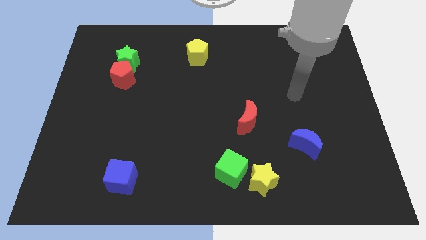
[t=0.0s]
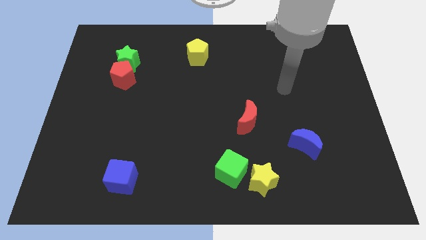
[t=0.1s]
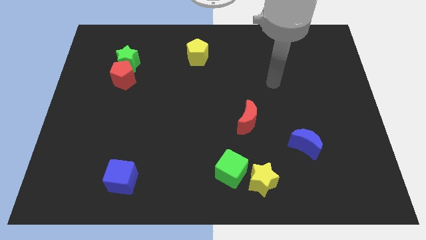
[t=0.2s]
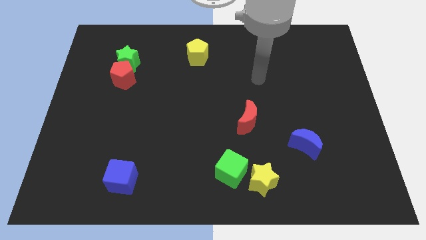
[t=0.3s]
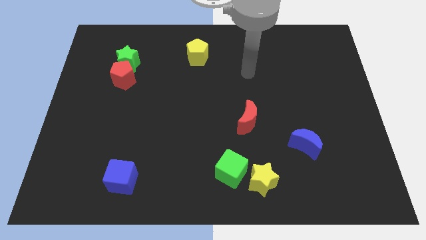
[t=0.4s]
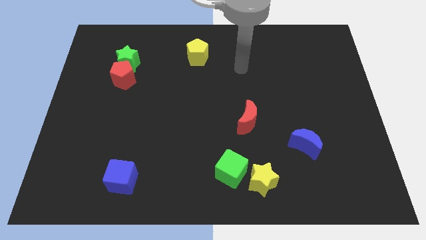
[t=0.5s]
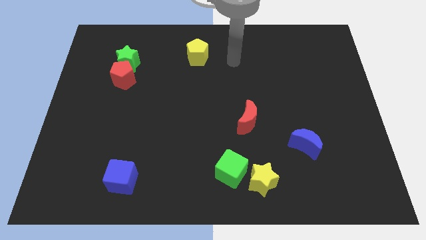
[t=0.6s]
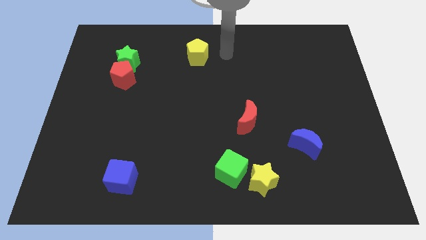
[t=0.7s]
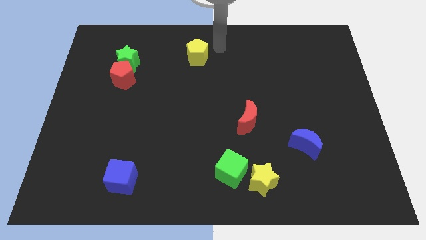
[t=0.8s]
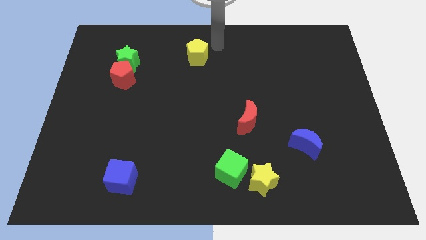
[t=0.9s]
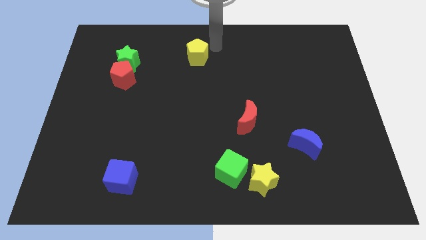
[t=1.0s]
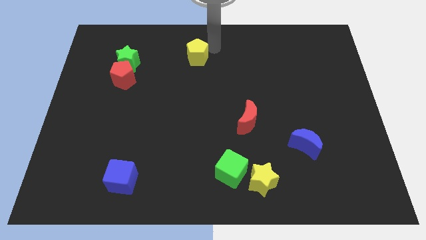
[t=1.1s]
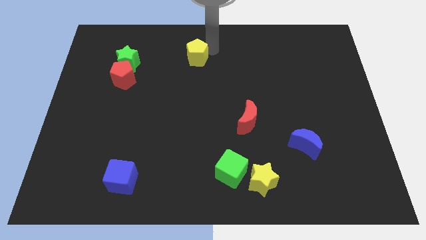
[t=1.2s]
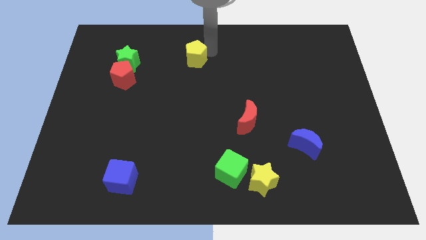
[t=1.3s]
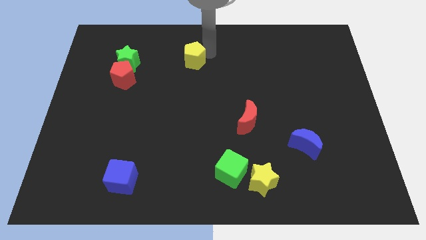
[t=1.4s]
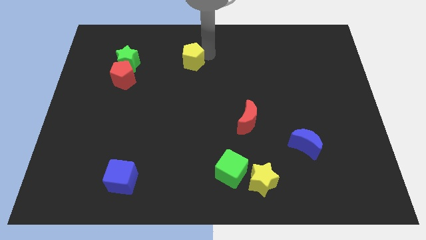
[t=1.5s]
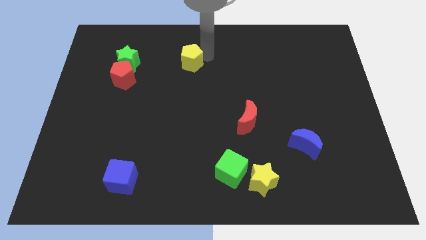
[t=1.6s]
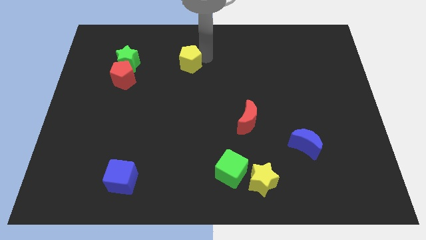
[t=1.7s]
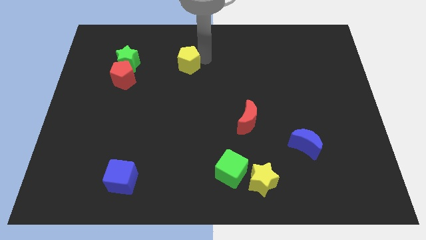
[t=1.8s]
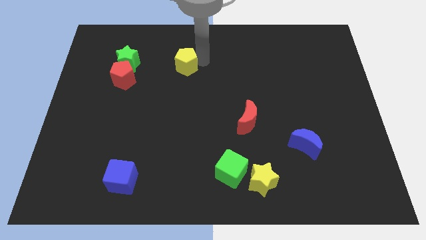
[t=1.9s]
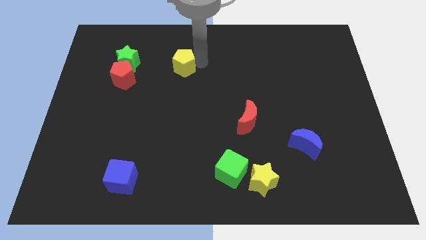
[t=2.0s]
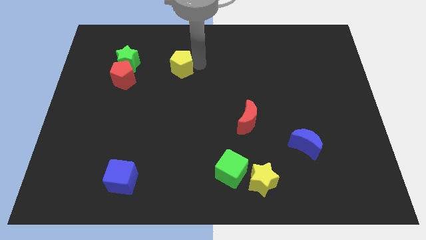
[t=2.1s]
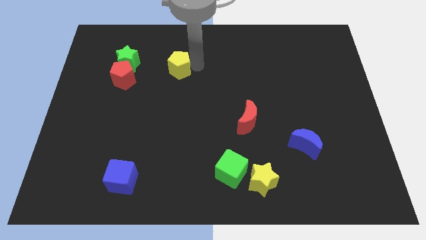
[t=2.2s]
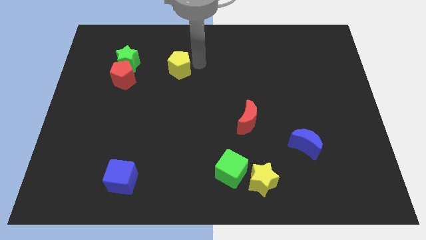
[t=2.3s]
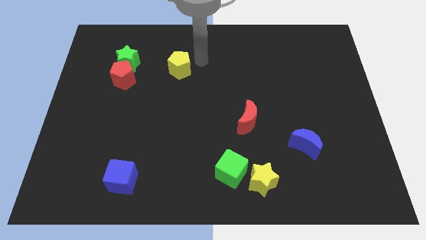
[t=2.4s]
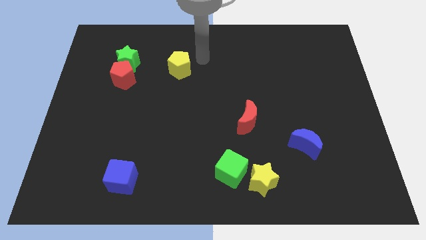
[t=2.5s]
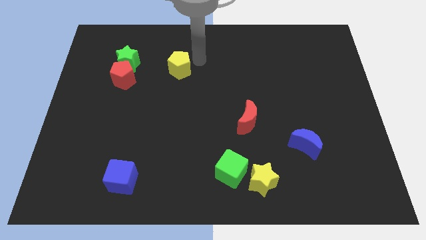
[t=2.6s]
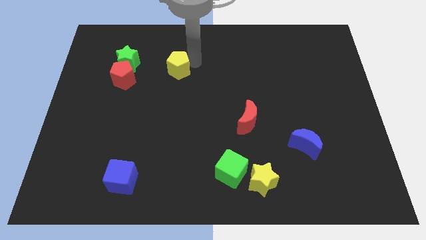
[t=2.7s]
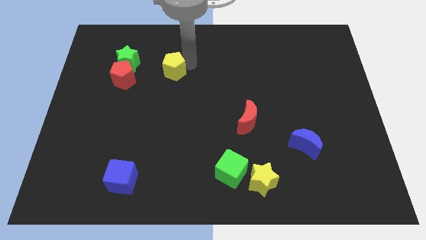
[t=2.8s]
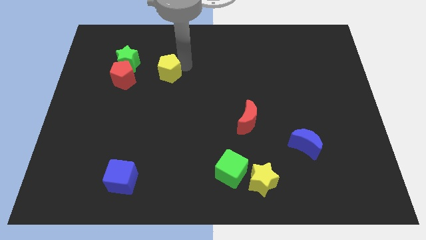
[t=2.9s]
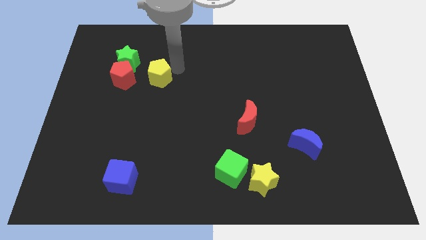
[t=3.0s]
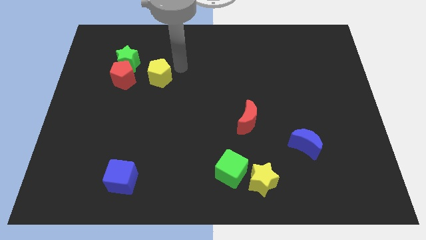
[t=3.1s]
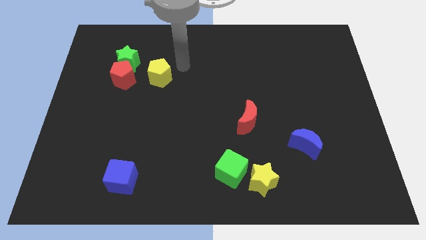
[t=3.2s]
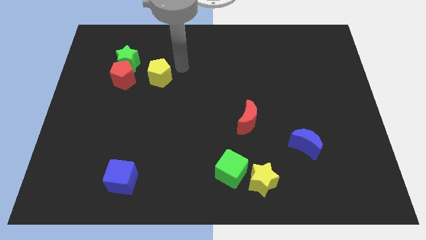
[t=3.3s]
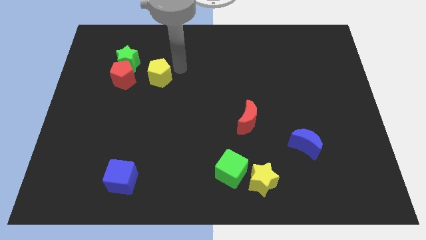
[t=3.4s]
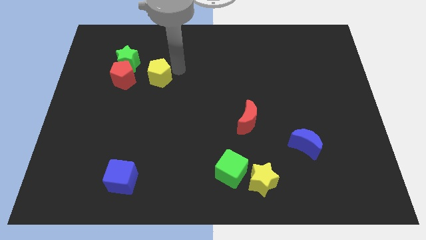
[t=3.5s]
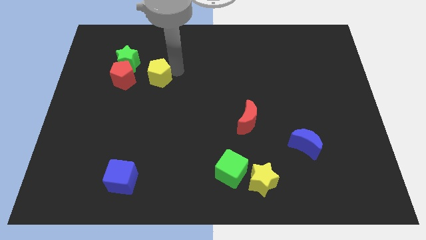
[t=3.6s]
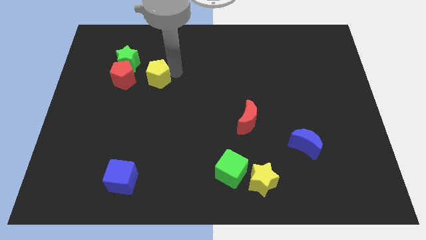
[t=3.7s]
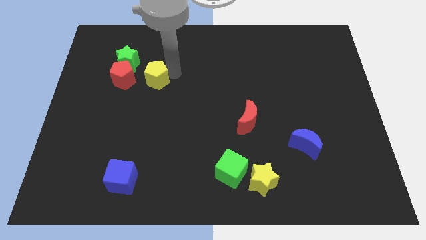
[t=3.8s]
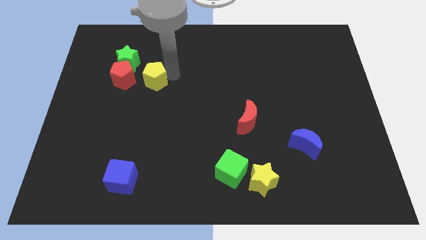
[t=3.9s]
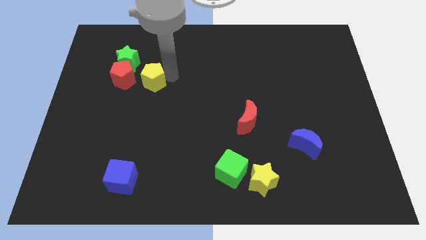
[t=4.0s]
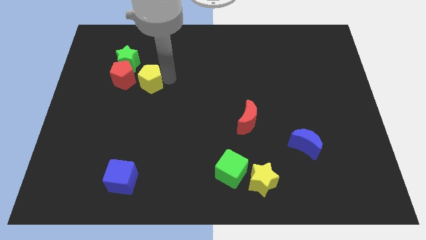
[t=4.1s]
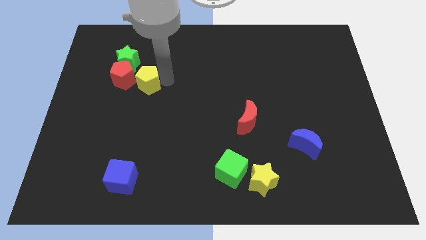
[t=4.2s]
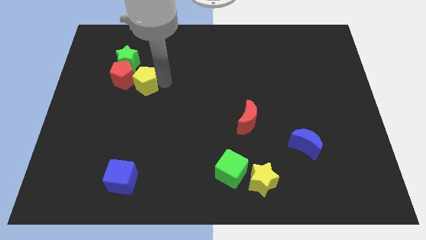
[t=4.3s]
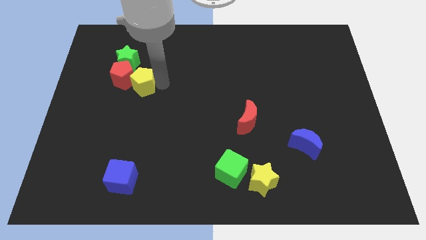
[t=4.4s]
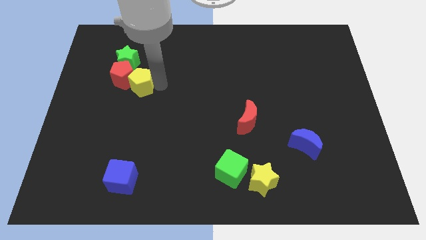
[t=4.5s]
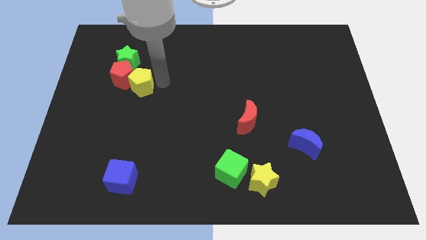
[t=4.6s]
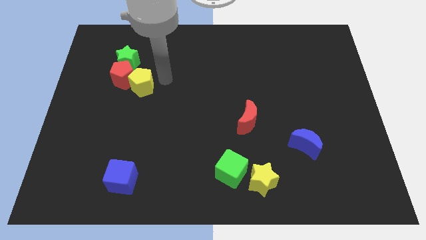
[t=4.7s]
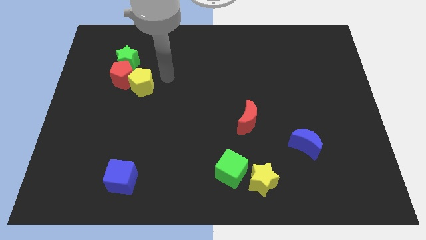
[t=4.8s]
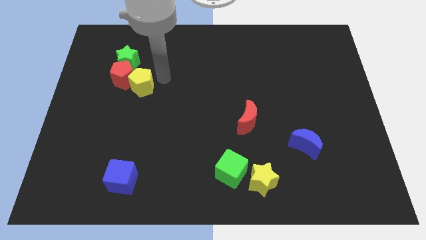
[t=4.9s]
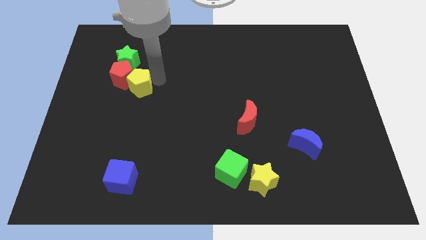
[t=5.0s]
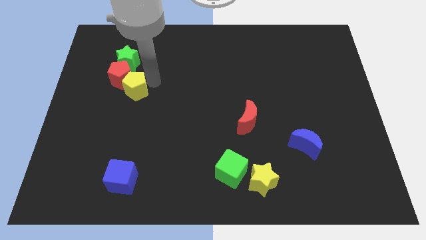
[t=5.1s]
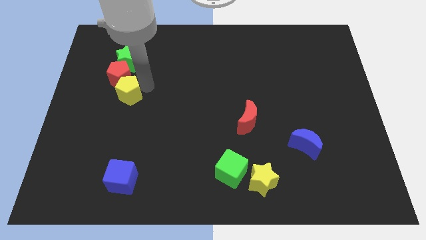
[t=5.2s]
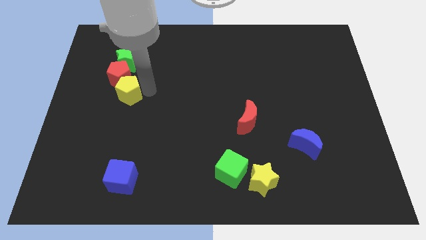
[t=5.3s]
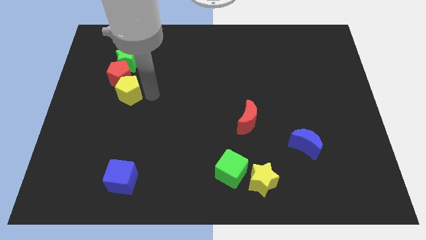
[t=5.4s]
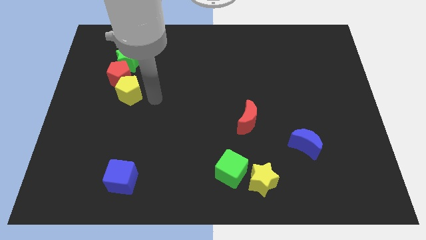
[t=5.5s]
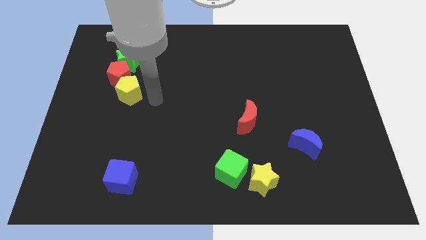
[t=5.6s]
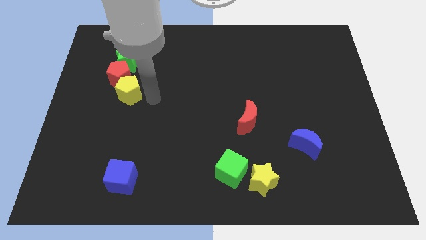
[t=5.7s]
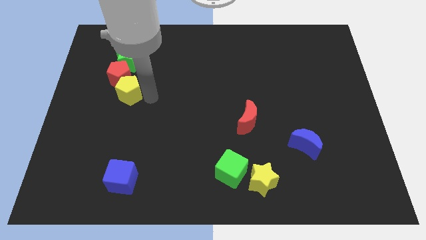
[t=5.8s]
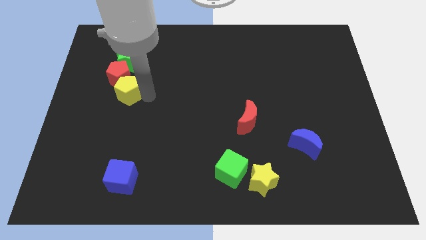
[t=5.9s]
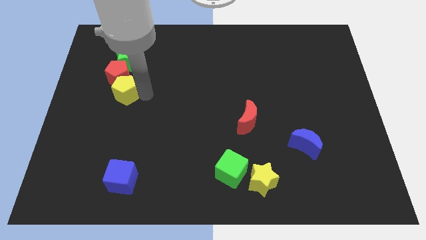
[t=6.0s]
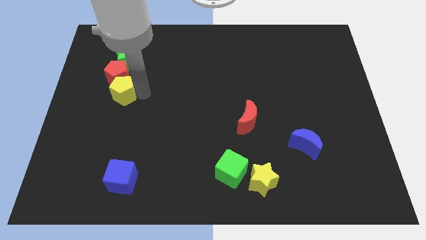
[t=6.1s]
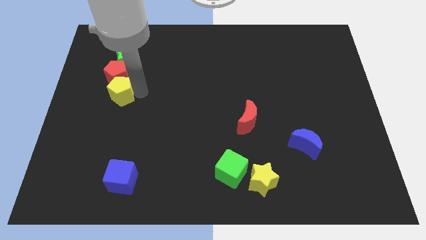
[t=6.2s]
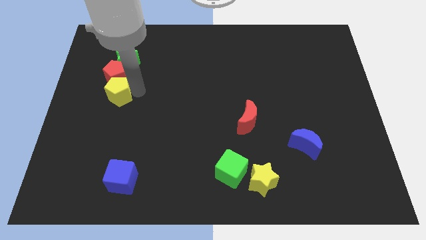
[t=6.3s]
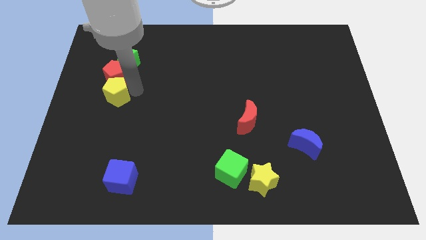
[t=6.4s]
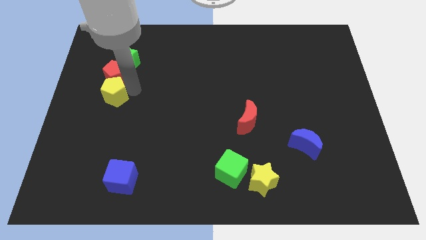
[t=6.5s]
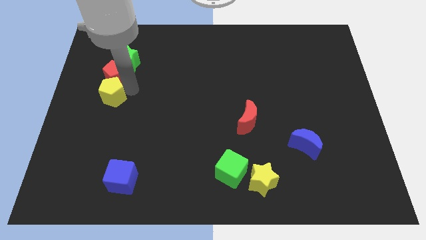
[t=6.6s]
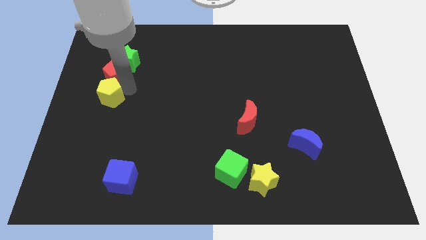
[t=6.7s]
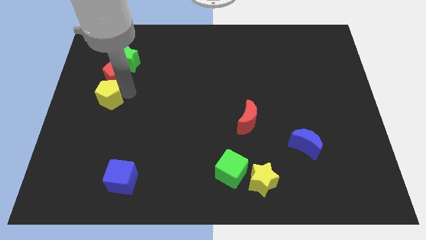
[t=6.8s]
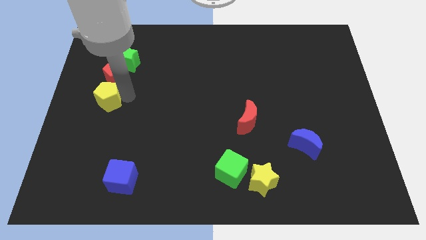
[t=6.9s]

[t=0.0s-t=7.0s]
push the yellow pentagon to the center left

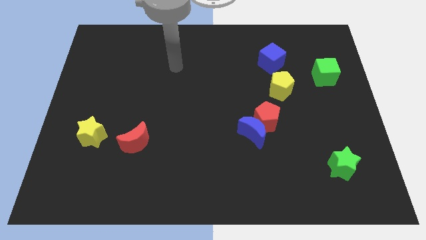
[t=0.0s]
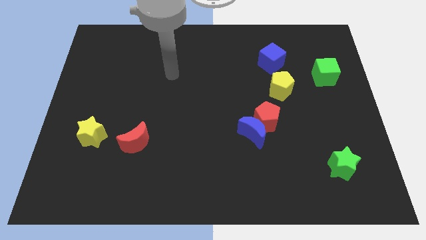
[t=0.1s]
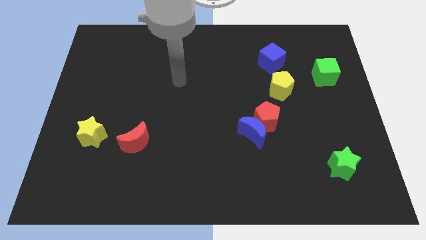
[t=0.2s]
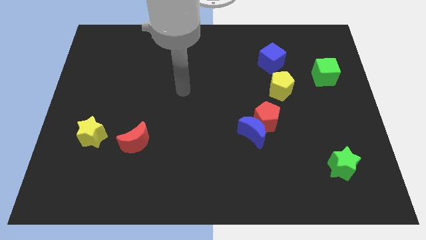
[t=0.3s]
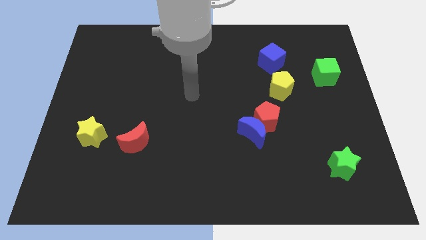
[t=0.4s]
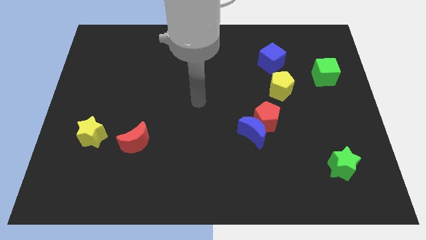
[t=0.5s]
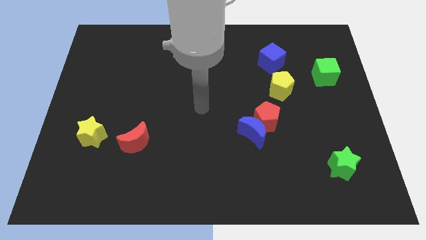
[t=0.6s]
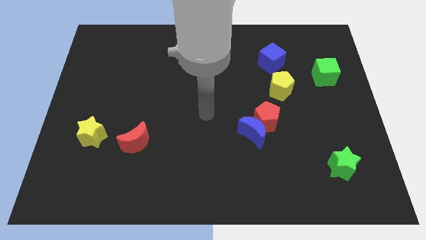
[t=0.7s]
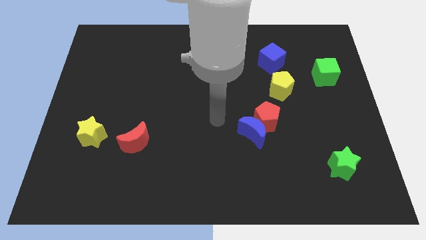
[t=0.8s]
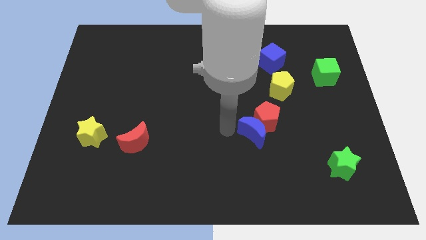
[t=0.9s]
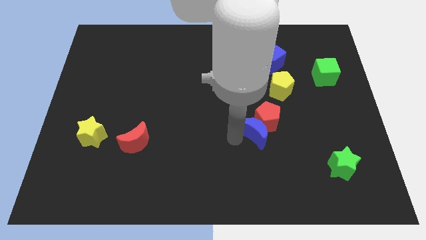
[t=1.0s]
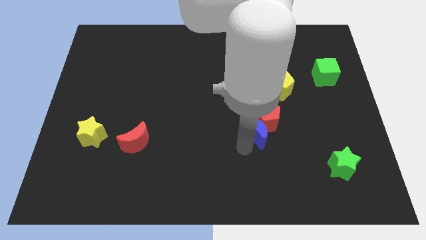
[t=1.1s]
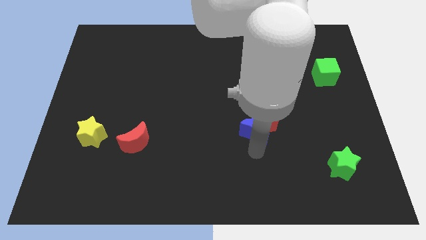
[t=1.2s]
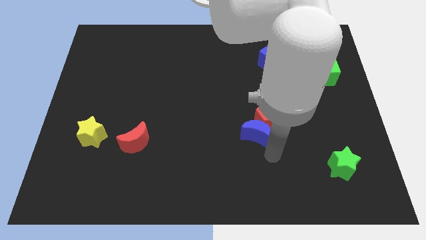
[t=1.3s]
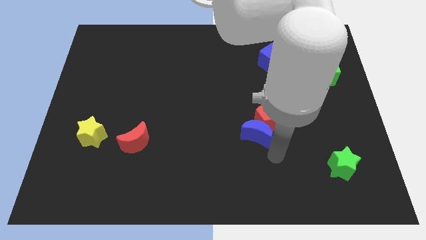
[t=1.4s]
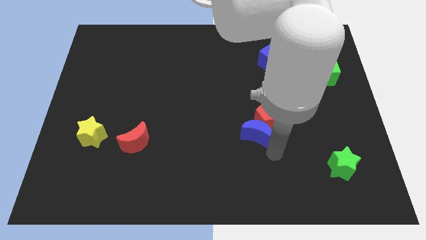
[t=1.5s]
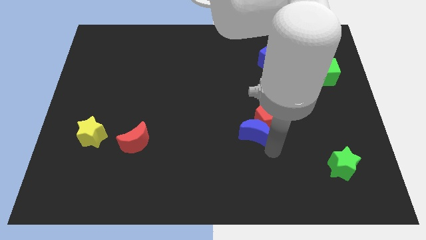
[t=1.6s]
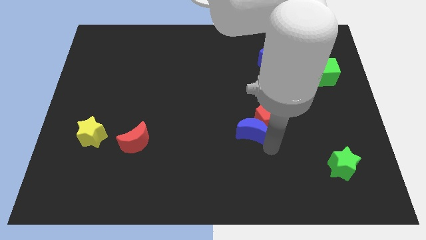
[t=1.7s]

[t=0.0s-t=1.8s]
push the blue moon to the center
